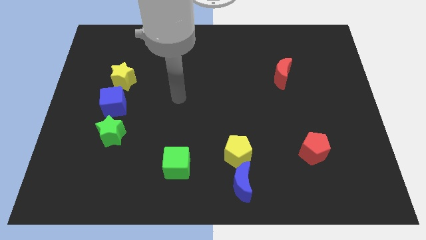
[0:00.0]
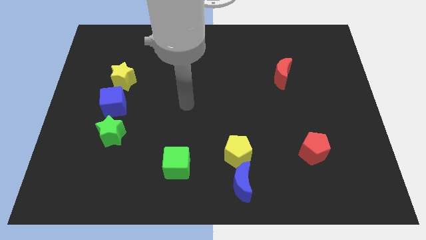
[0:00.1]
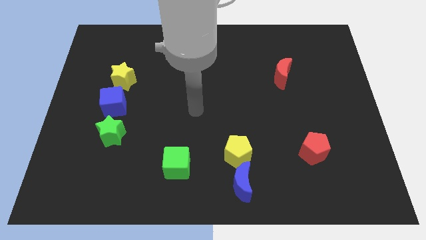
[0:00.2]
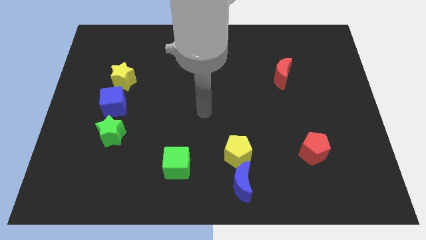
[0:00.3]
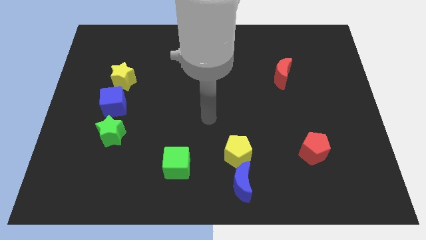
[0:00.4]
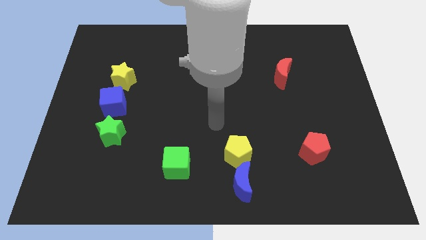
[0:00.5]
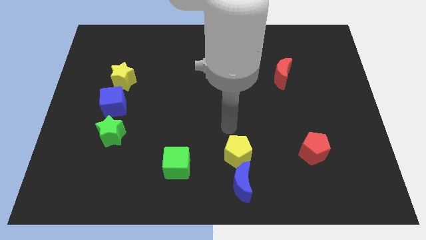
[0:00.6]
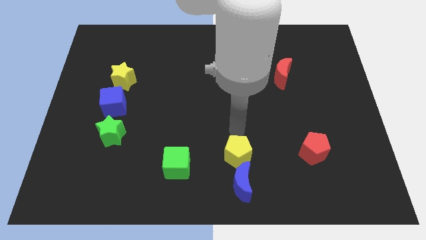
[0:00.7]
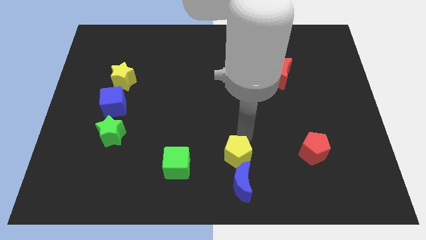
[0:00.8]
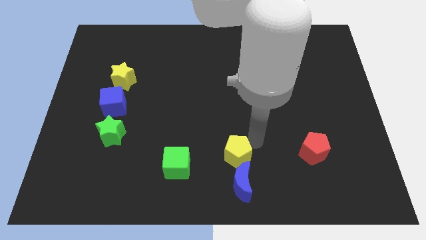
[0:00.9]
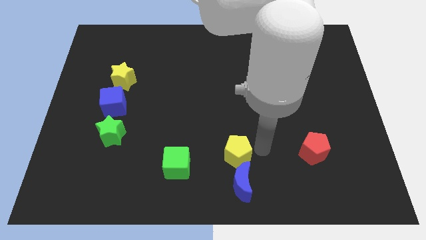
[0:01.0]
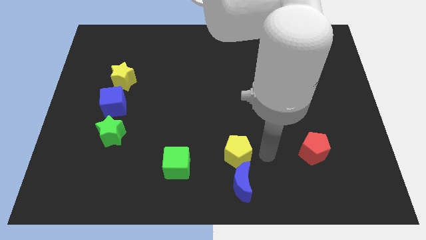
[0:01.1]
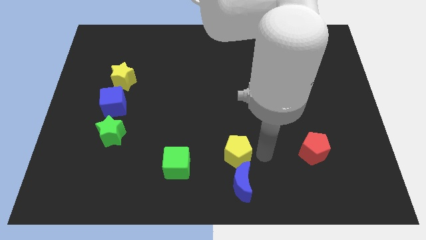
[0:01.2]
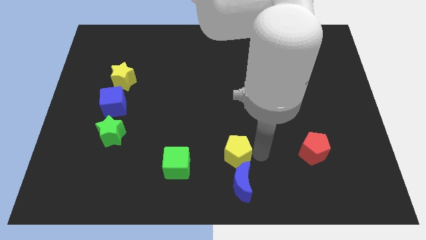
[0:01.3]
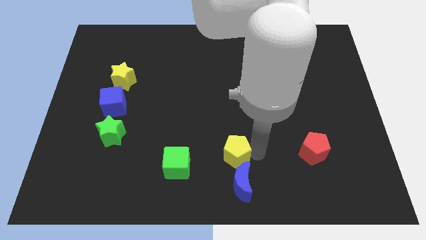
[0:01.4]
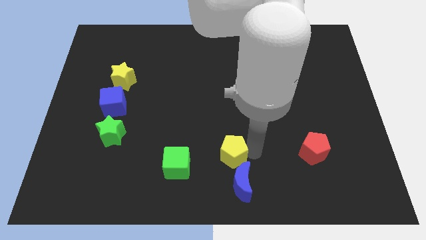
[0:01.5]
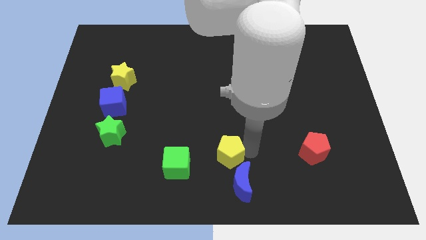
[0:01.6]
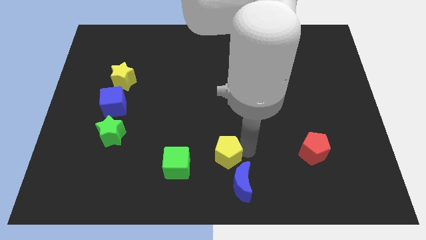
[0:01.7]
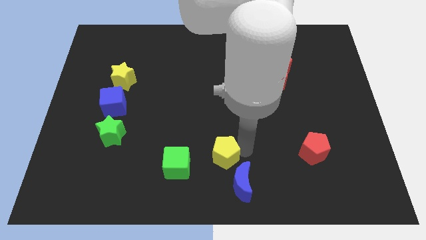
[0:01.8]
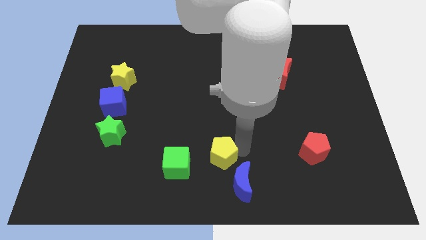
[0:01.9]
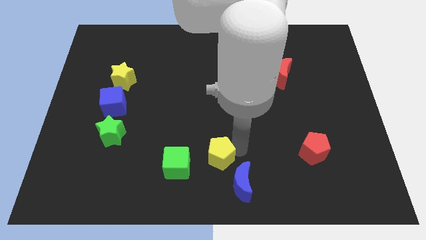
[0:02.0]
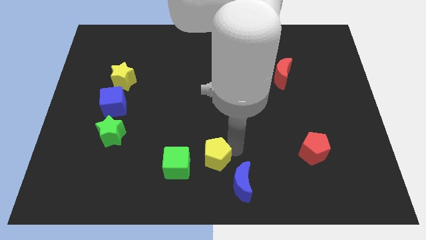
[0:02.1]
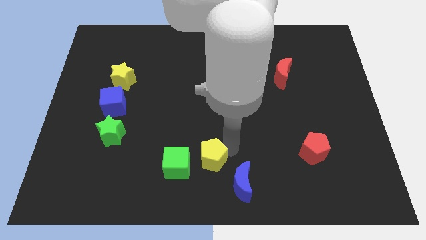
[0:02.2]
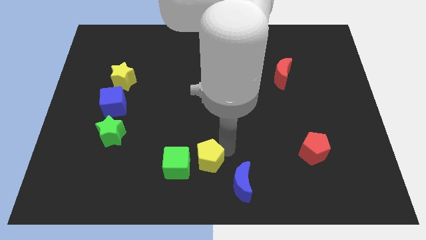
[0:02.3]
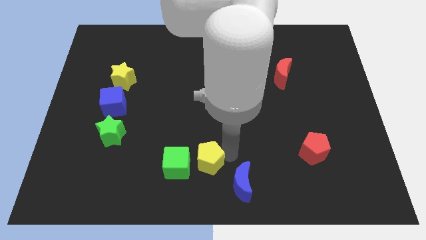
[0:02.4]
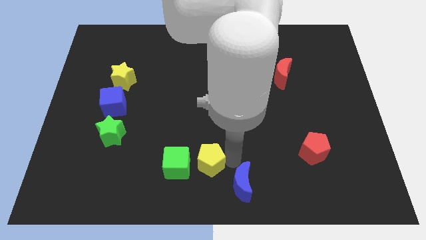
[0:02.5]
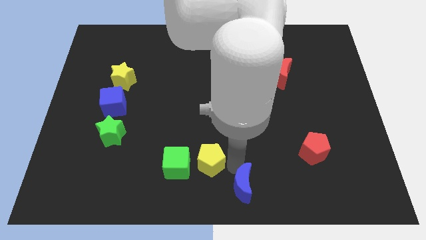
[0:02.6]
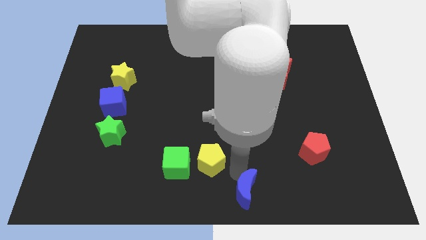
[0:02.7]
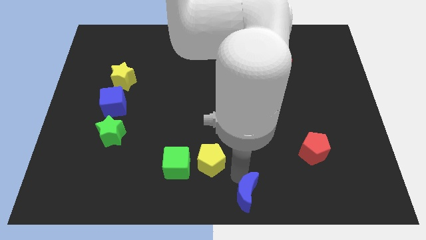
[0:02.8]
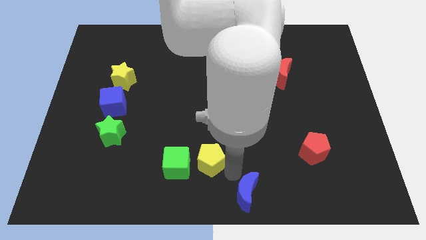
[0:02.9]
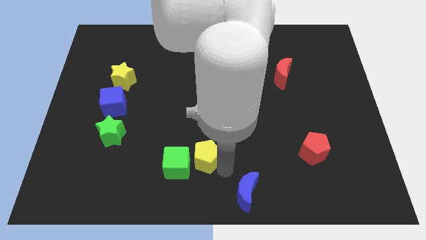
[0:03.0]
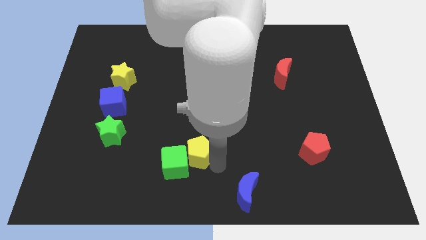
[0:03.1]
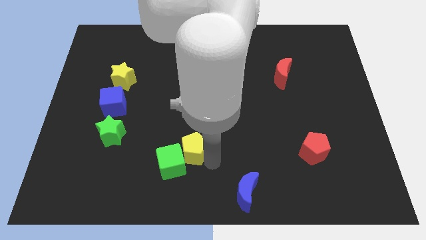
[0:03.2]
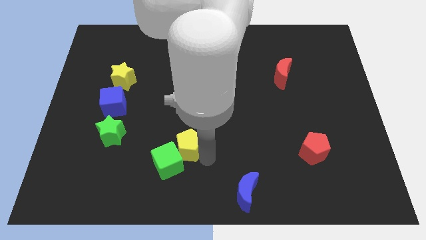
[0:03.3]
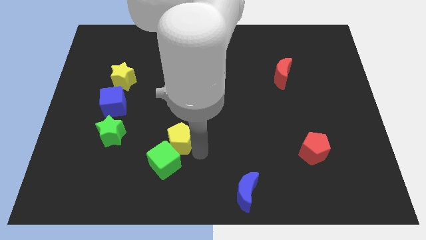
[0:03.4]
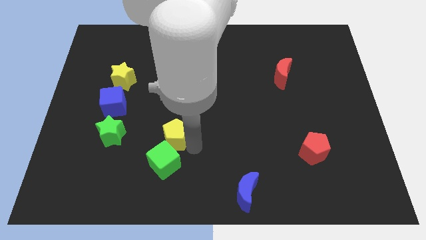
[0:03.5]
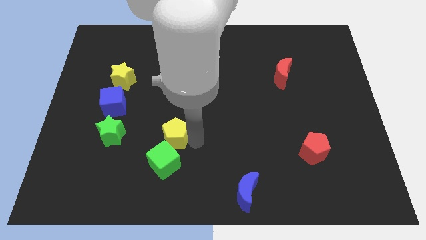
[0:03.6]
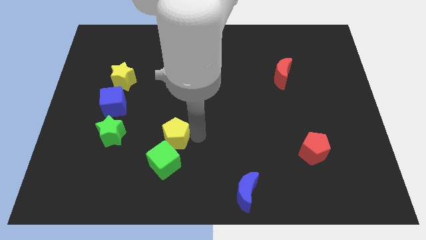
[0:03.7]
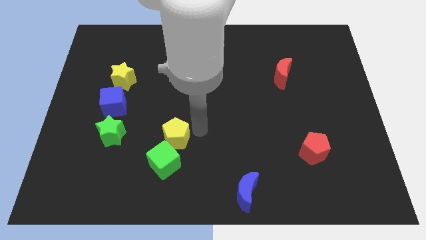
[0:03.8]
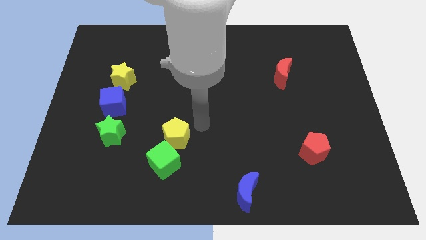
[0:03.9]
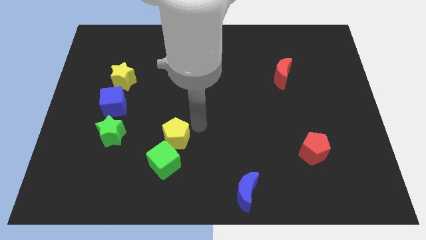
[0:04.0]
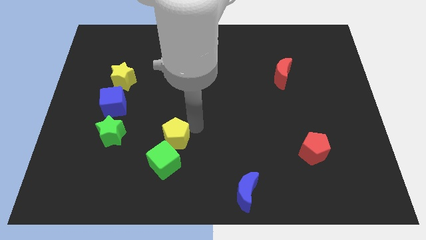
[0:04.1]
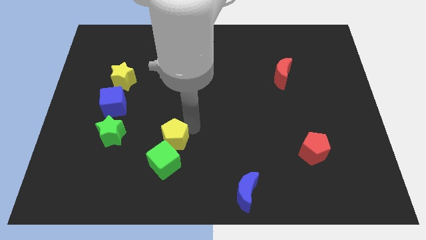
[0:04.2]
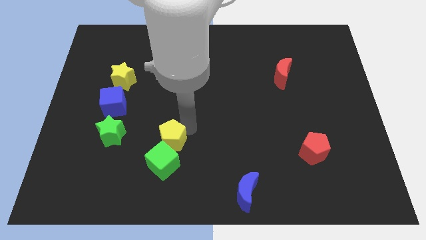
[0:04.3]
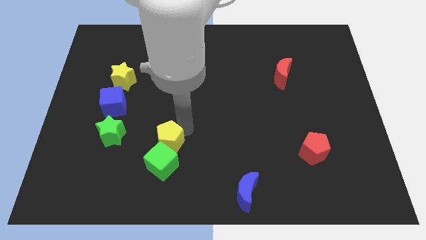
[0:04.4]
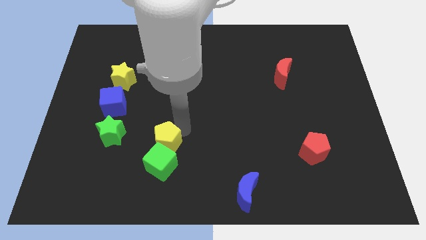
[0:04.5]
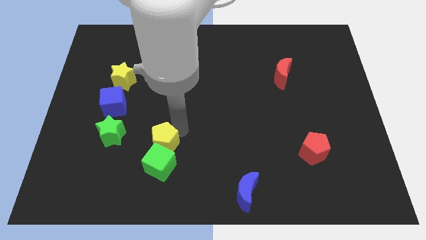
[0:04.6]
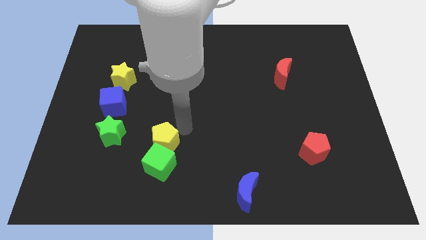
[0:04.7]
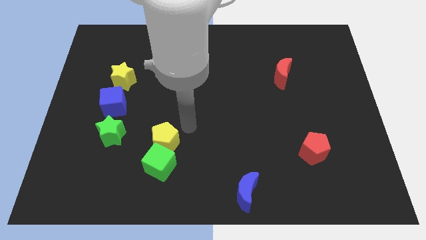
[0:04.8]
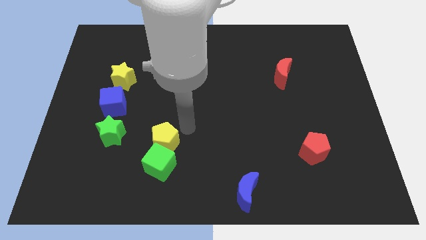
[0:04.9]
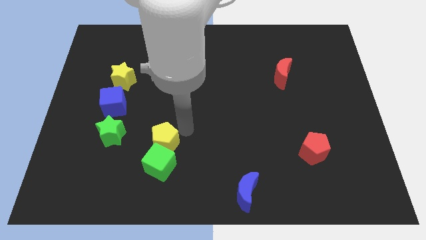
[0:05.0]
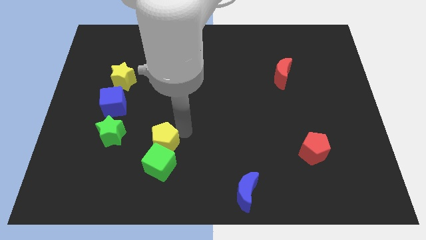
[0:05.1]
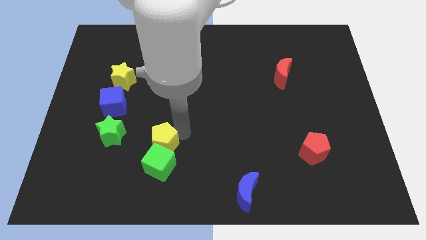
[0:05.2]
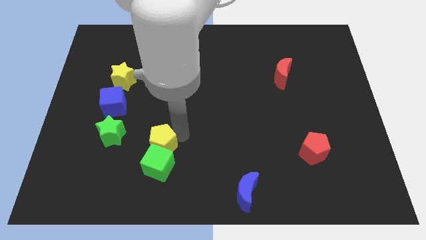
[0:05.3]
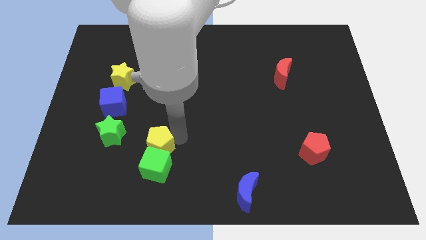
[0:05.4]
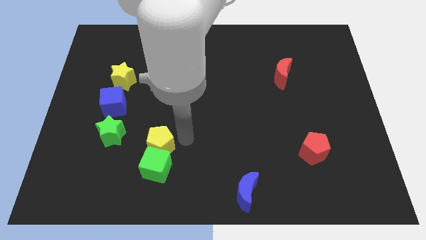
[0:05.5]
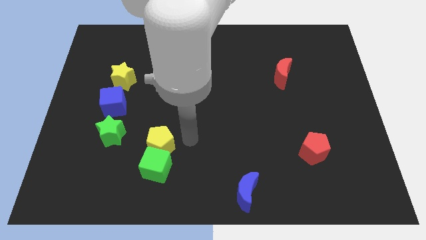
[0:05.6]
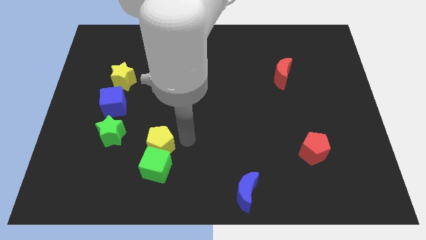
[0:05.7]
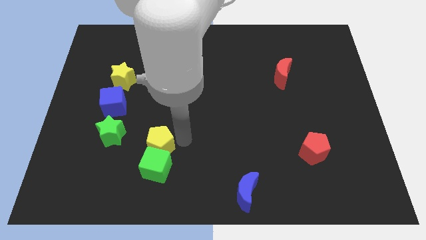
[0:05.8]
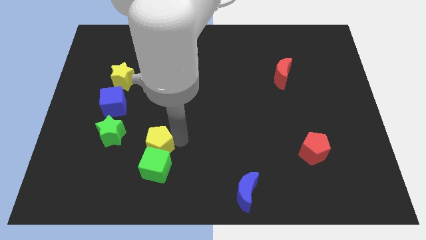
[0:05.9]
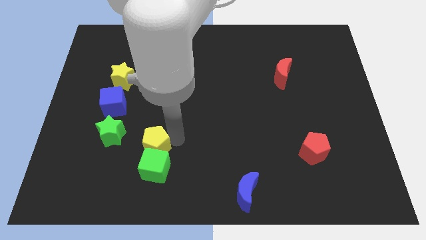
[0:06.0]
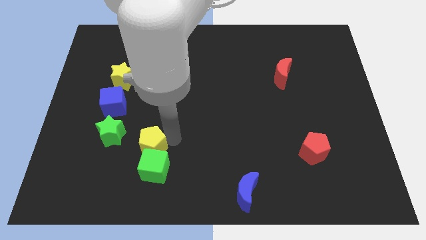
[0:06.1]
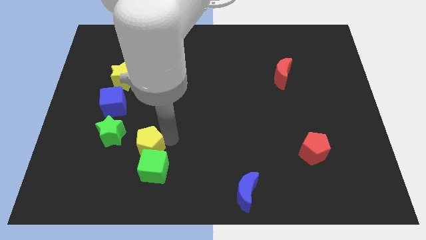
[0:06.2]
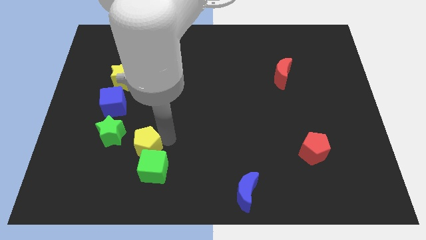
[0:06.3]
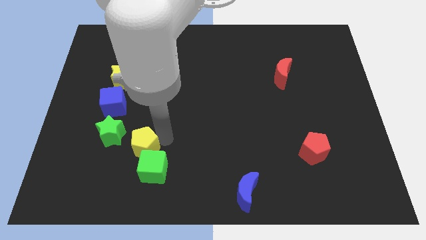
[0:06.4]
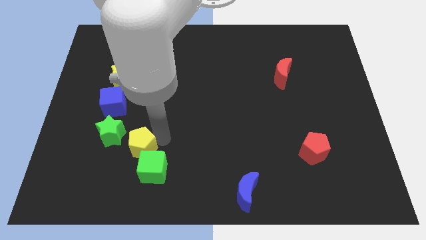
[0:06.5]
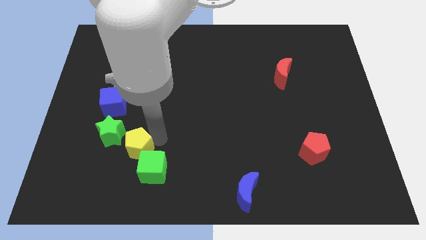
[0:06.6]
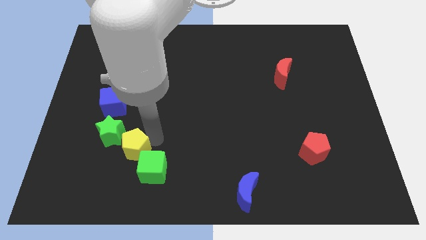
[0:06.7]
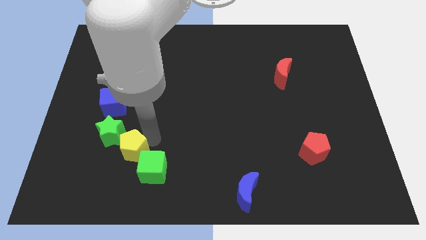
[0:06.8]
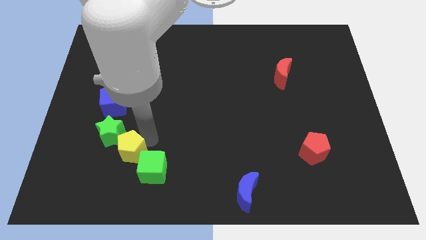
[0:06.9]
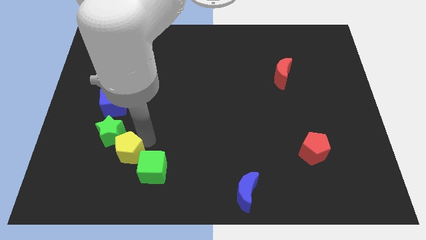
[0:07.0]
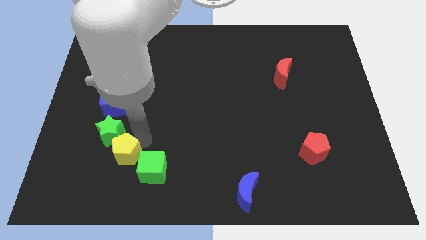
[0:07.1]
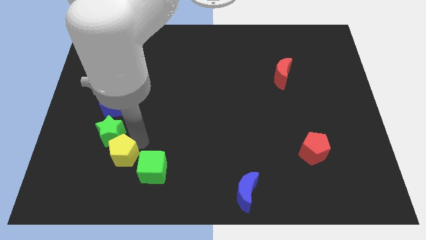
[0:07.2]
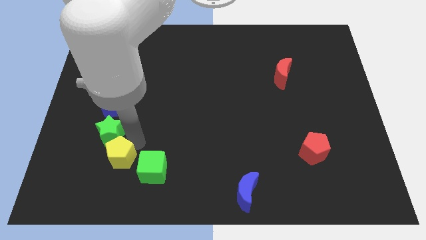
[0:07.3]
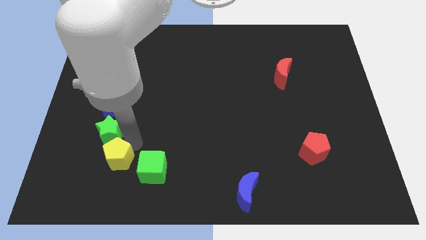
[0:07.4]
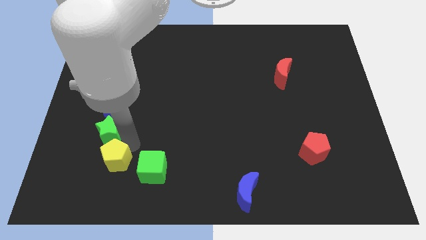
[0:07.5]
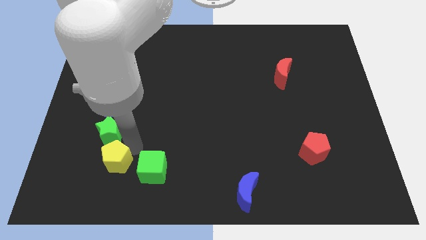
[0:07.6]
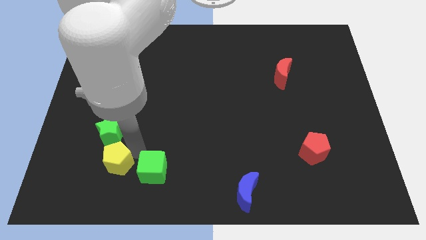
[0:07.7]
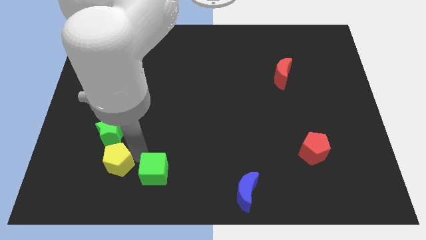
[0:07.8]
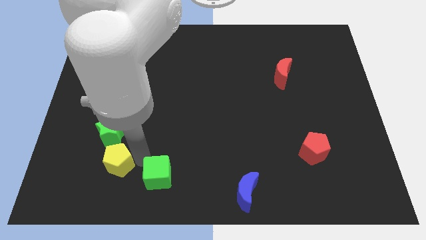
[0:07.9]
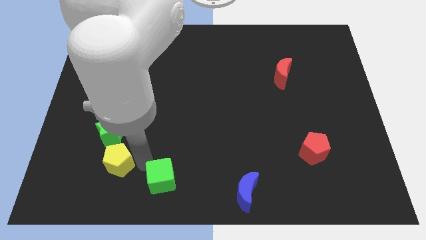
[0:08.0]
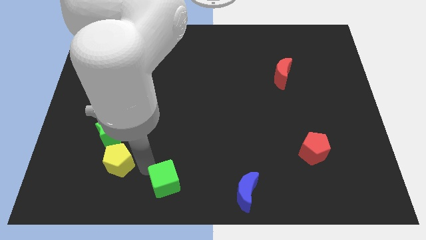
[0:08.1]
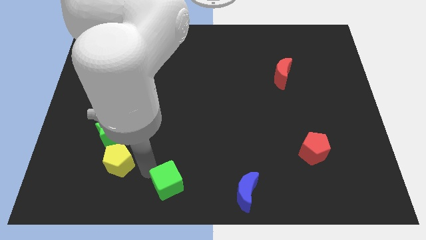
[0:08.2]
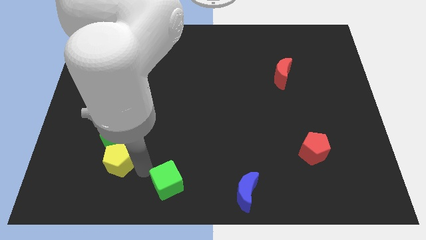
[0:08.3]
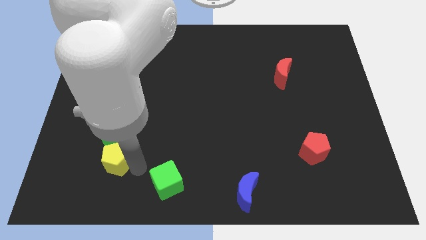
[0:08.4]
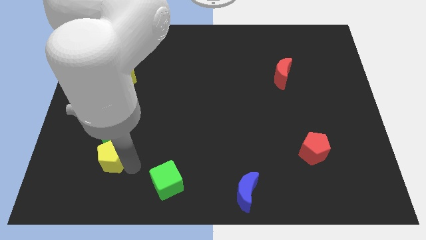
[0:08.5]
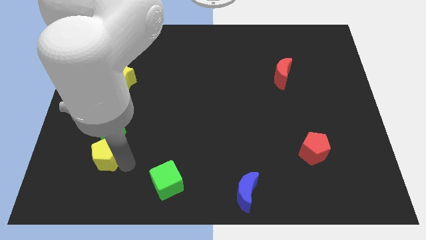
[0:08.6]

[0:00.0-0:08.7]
push the yellow pentagon diagonally down and to the left of the green star
